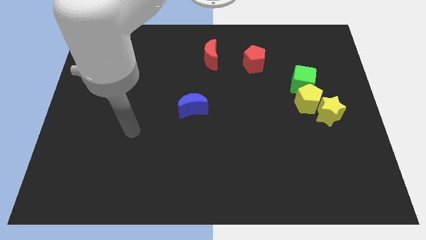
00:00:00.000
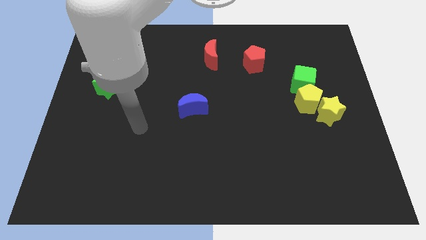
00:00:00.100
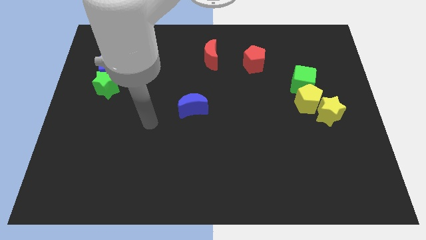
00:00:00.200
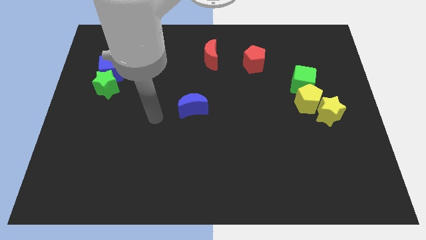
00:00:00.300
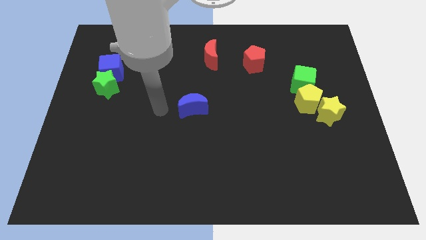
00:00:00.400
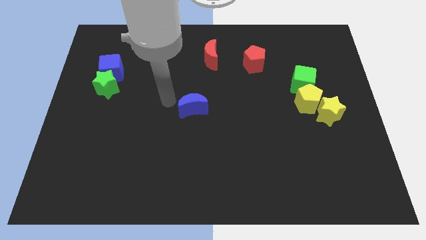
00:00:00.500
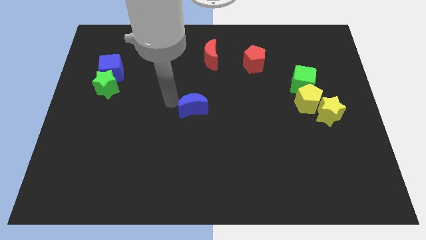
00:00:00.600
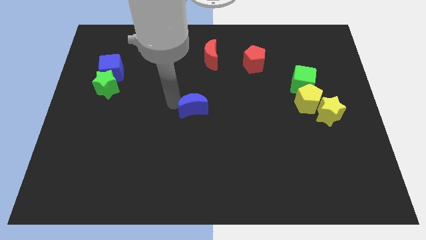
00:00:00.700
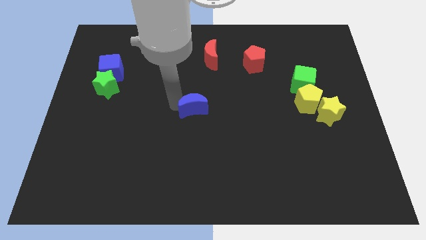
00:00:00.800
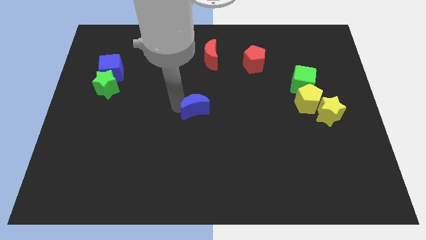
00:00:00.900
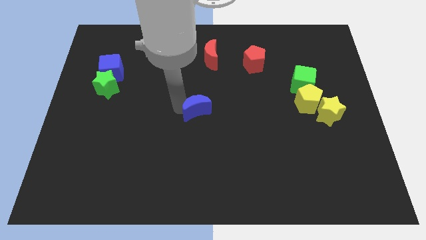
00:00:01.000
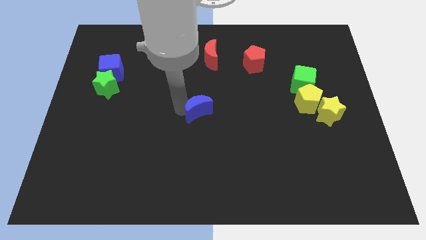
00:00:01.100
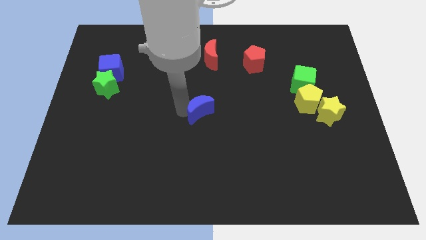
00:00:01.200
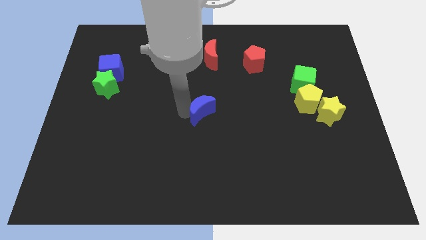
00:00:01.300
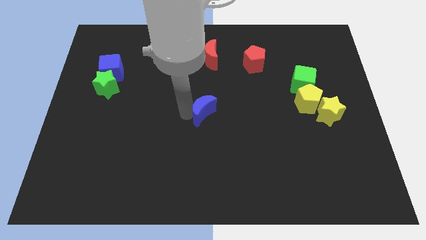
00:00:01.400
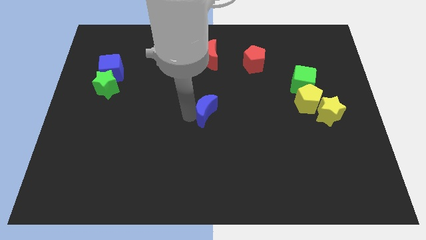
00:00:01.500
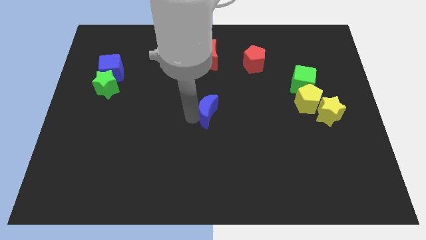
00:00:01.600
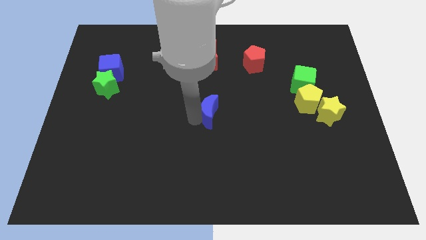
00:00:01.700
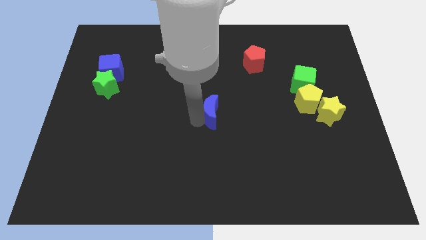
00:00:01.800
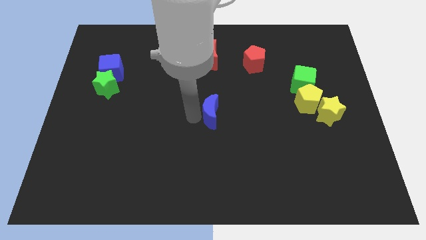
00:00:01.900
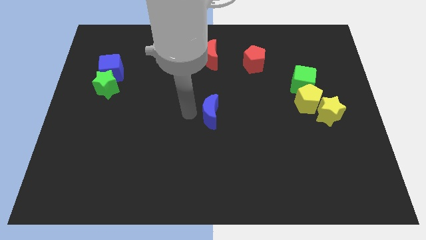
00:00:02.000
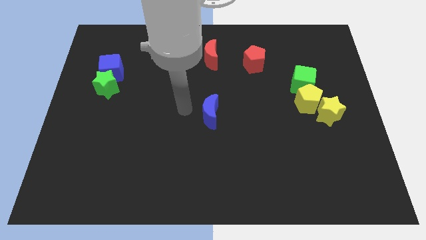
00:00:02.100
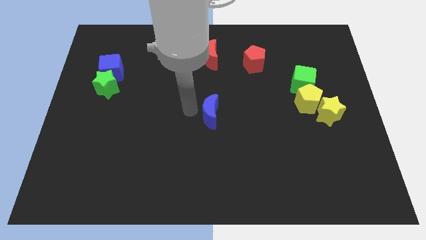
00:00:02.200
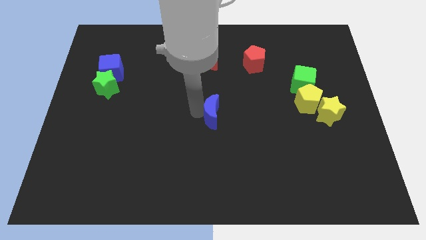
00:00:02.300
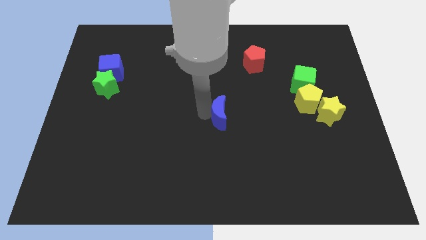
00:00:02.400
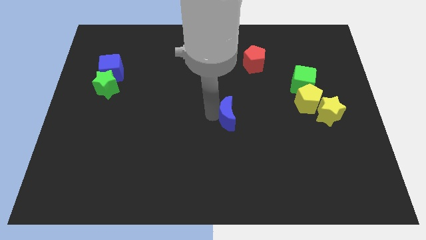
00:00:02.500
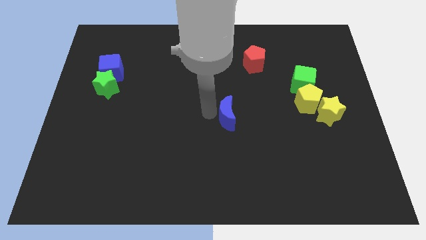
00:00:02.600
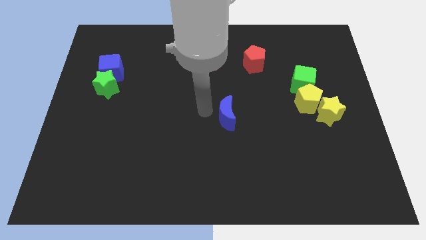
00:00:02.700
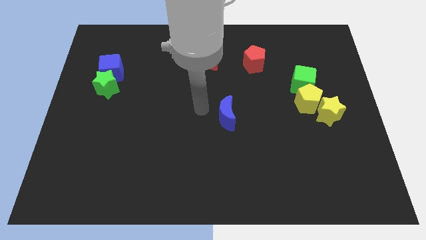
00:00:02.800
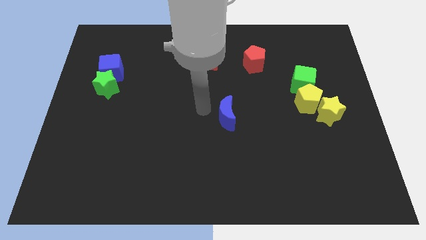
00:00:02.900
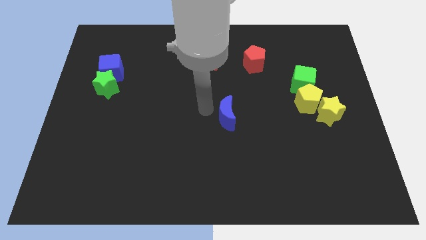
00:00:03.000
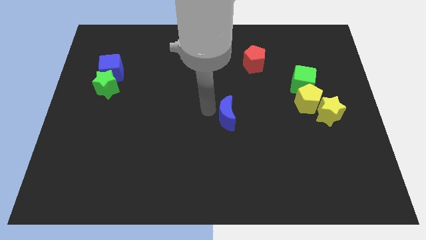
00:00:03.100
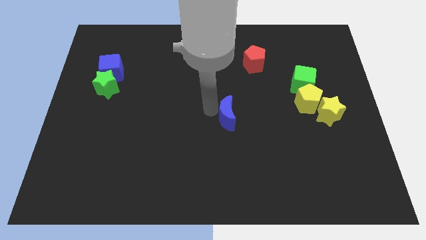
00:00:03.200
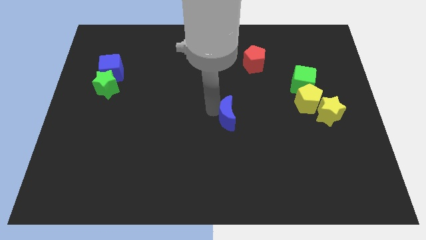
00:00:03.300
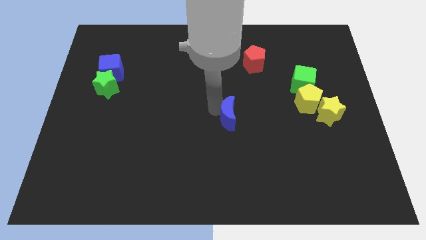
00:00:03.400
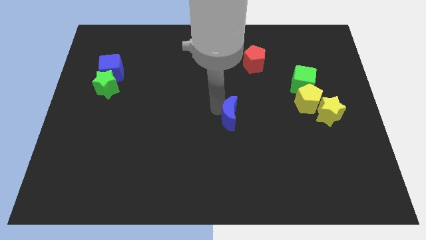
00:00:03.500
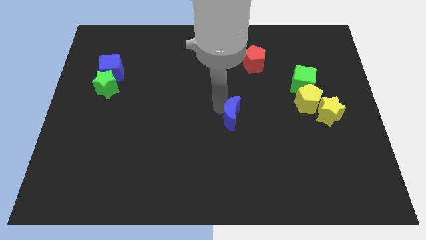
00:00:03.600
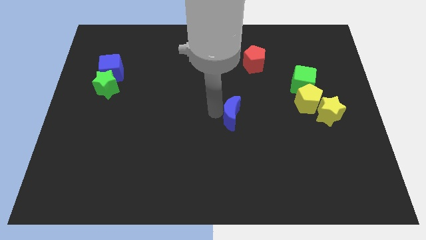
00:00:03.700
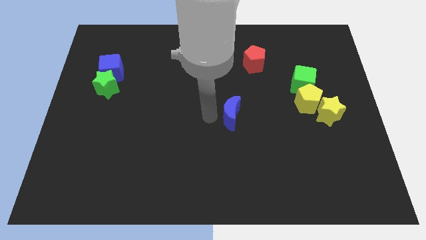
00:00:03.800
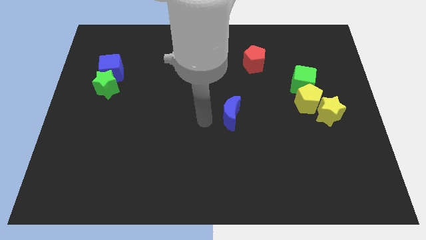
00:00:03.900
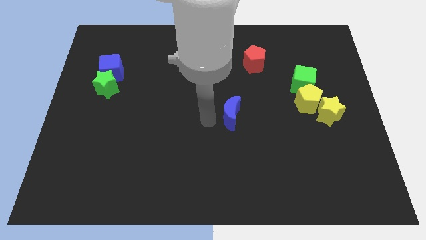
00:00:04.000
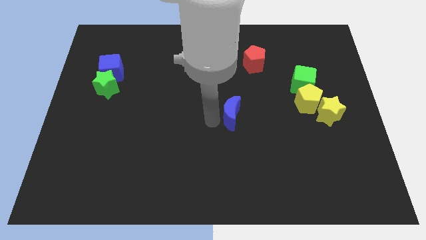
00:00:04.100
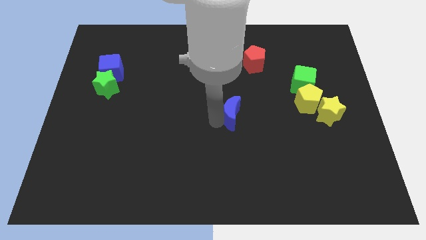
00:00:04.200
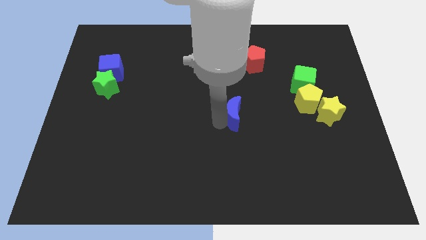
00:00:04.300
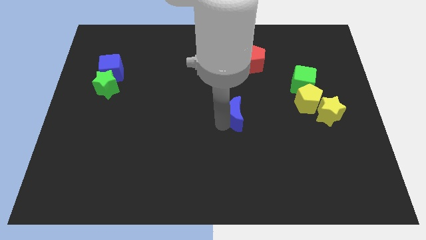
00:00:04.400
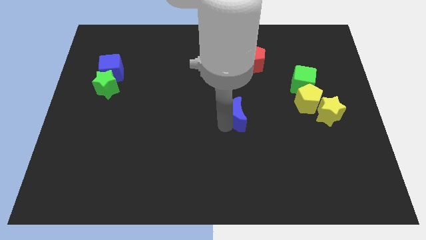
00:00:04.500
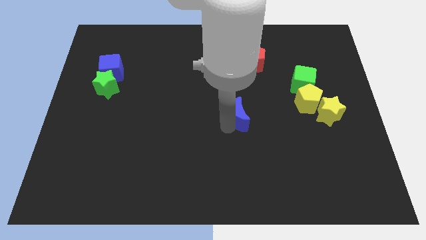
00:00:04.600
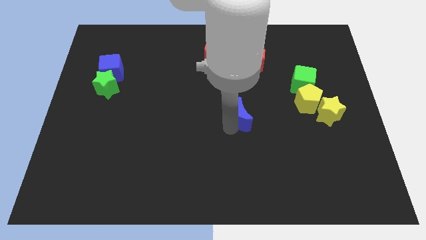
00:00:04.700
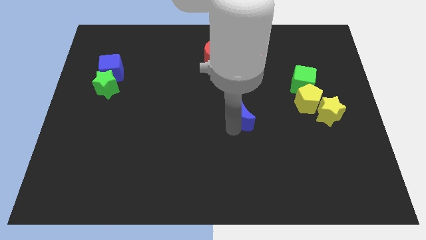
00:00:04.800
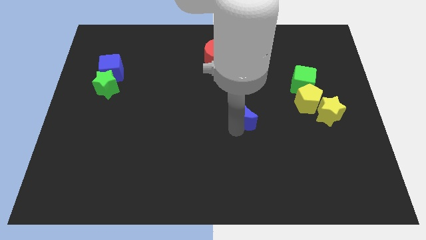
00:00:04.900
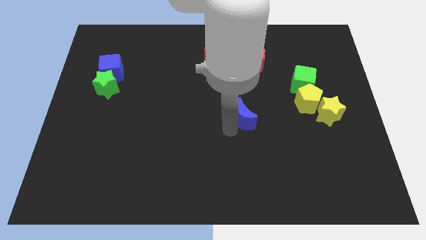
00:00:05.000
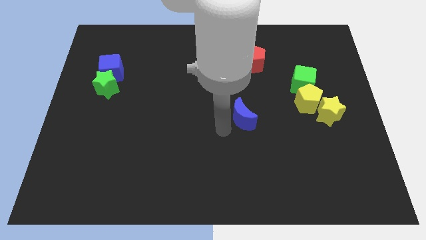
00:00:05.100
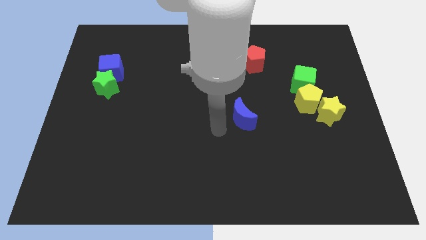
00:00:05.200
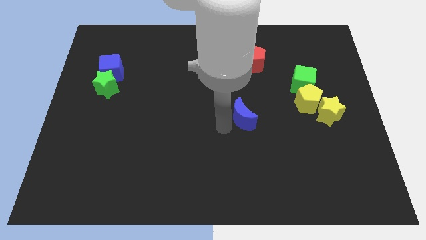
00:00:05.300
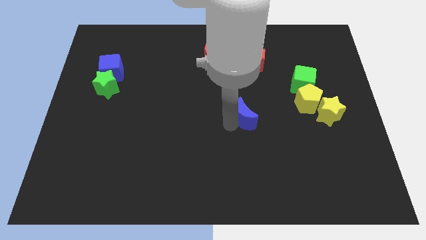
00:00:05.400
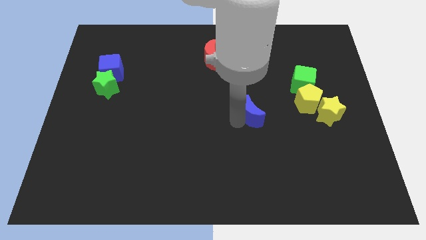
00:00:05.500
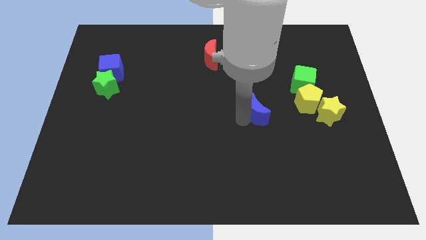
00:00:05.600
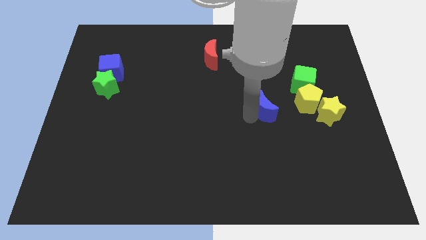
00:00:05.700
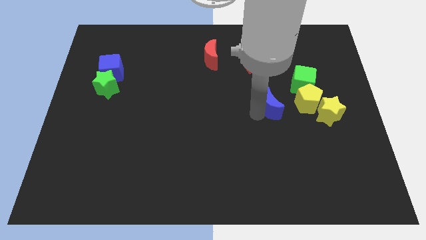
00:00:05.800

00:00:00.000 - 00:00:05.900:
move the blue moon diagonally down and to the left of the green cube

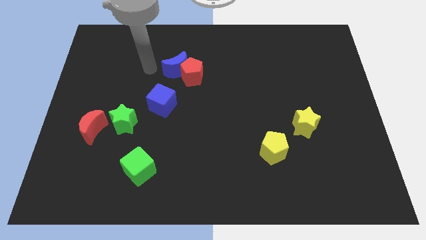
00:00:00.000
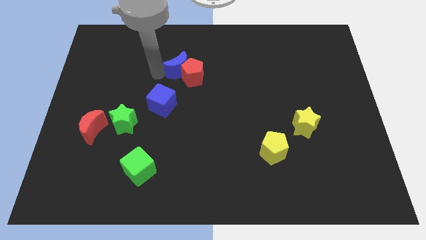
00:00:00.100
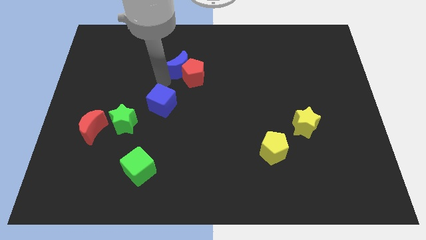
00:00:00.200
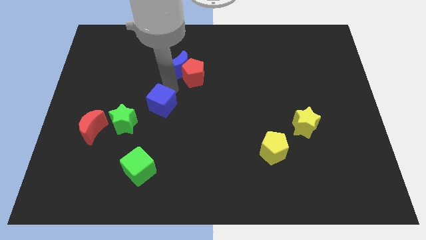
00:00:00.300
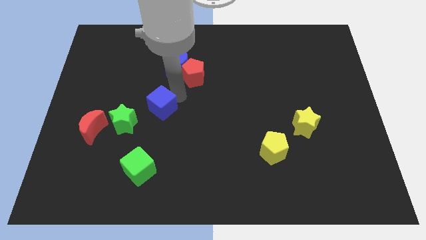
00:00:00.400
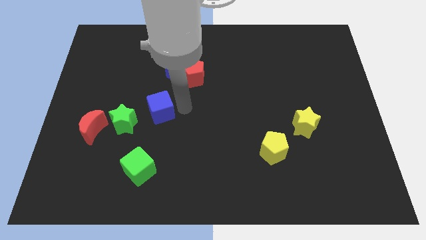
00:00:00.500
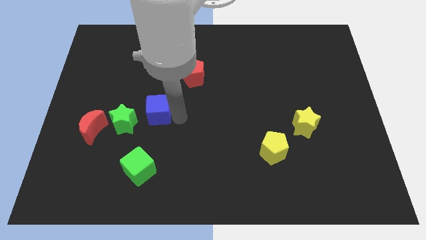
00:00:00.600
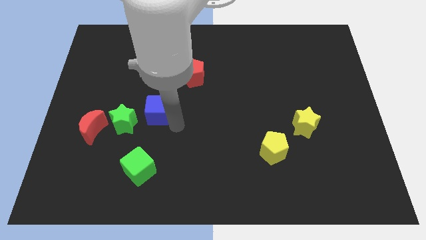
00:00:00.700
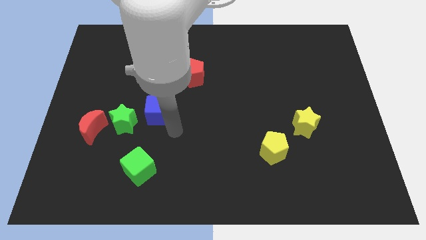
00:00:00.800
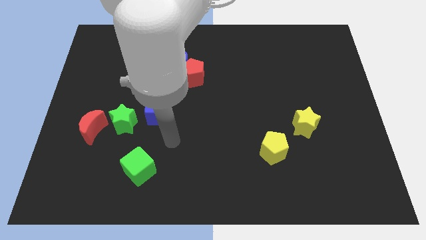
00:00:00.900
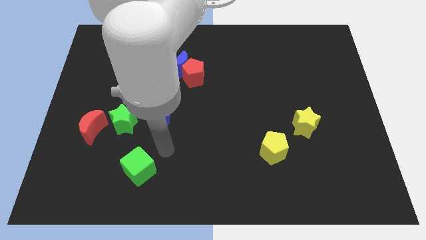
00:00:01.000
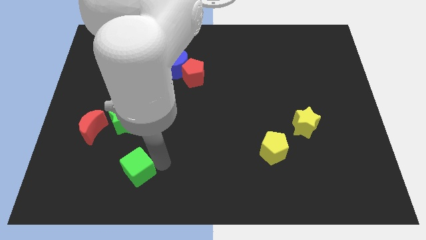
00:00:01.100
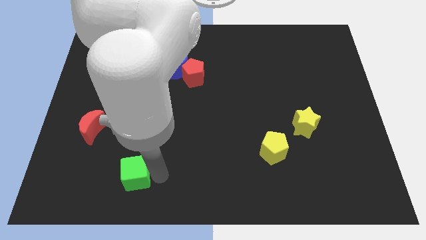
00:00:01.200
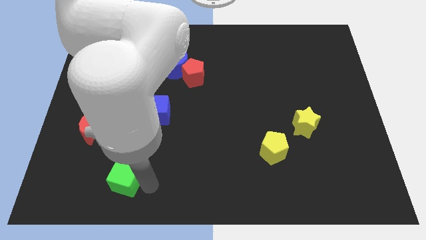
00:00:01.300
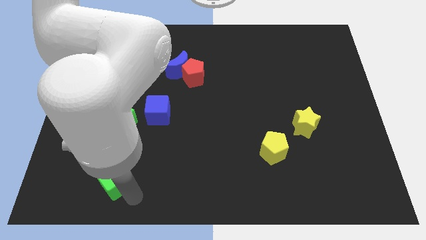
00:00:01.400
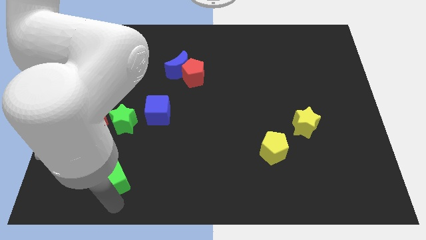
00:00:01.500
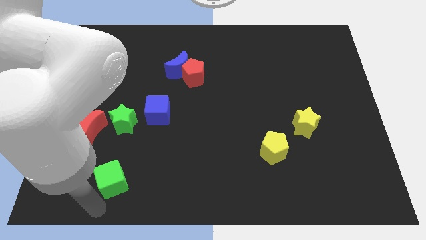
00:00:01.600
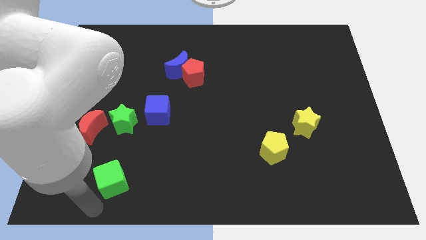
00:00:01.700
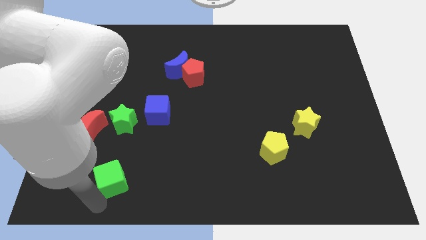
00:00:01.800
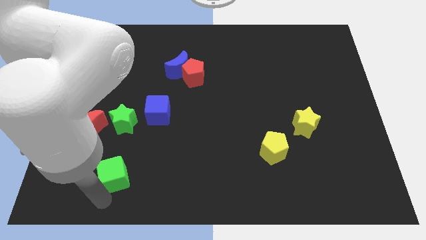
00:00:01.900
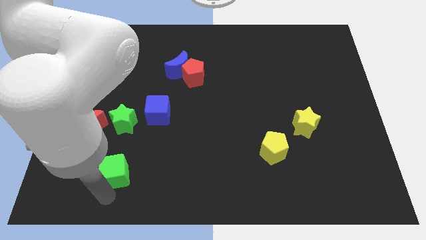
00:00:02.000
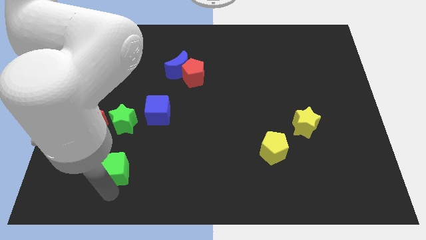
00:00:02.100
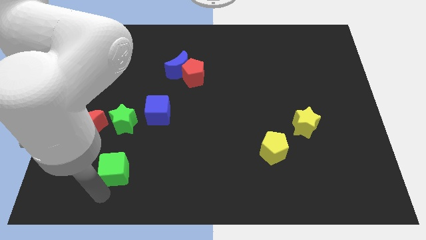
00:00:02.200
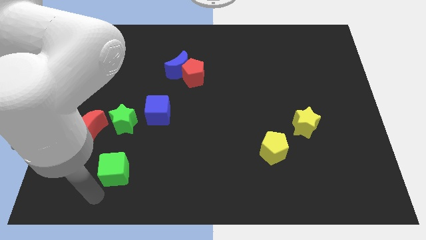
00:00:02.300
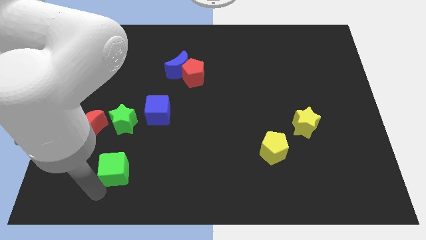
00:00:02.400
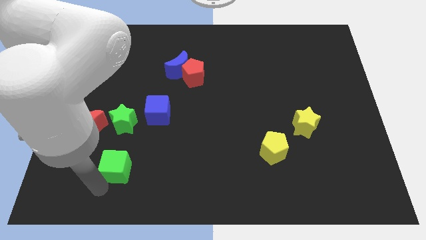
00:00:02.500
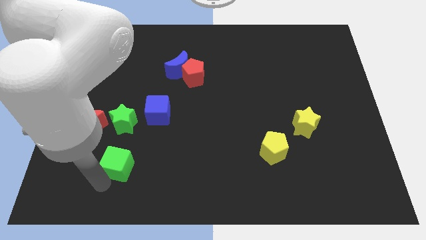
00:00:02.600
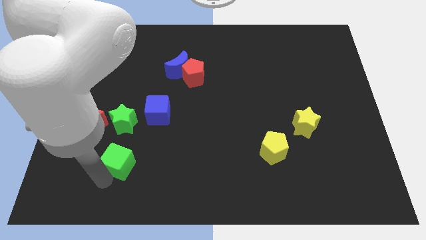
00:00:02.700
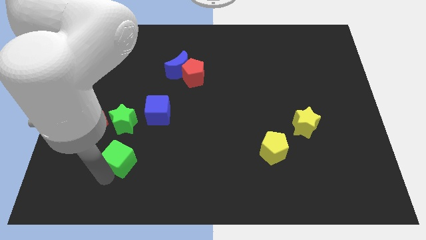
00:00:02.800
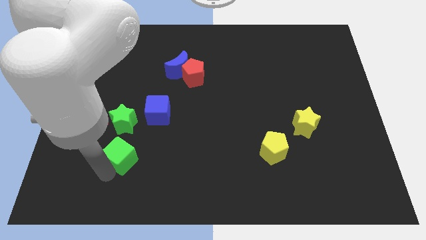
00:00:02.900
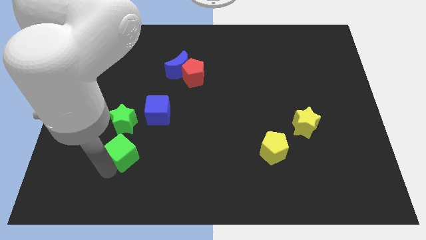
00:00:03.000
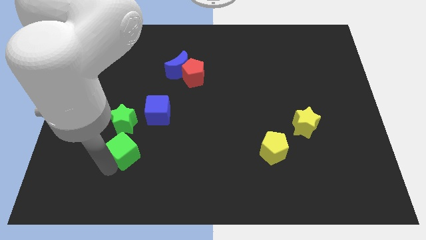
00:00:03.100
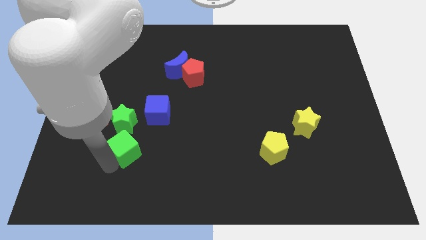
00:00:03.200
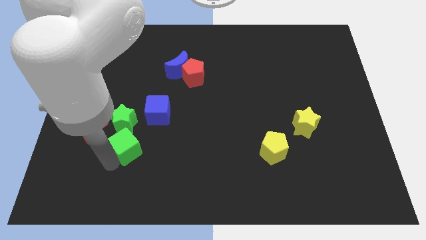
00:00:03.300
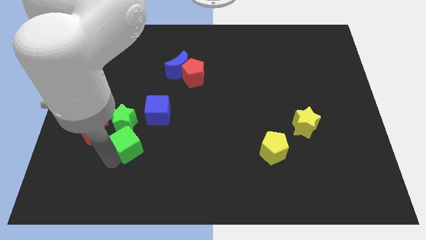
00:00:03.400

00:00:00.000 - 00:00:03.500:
push the green cube to the right side of the red moon
